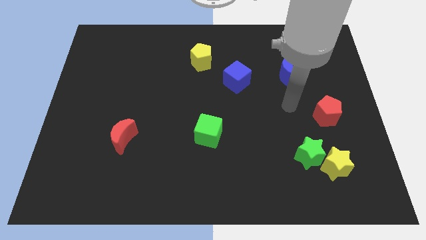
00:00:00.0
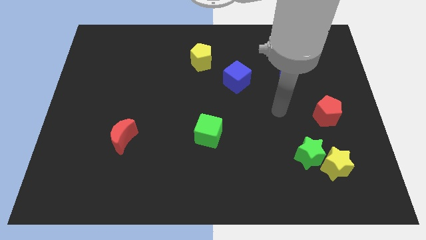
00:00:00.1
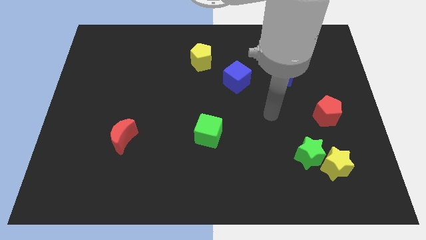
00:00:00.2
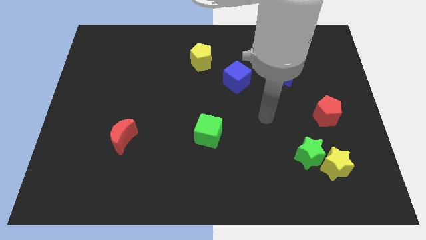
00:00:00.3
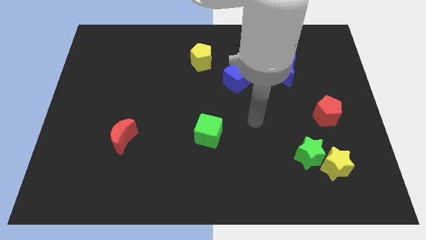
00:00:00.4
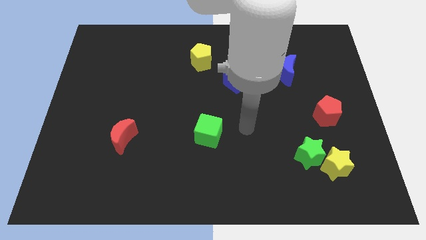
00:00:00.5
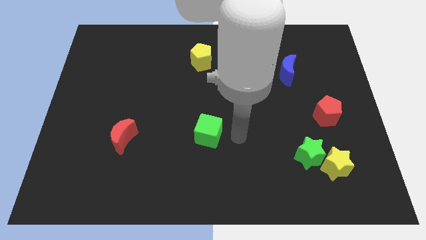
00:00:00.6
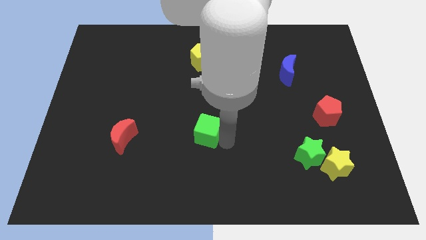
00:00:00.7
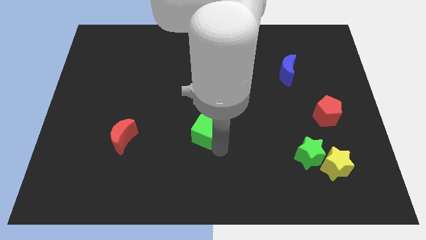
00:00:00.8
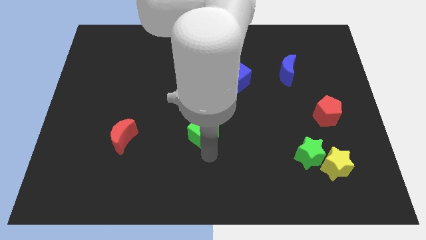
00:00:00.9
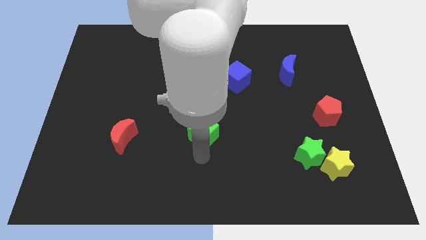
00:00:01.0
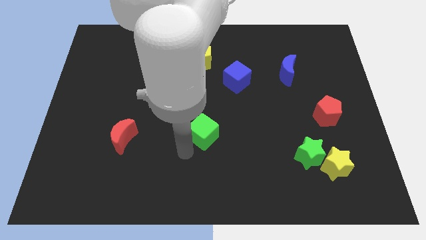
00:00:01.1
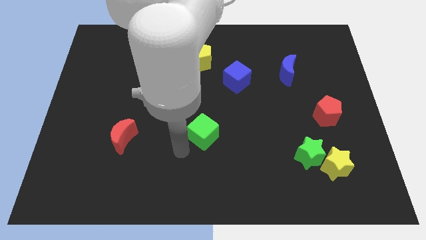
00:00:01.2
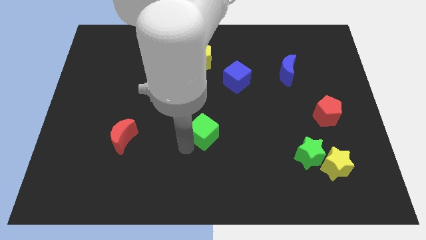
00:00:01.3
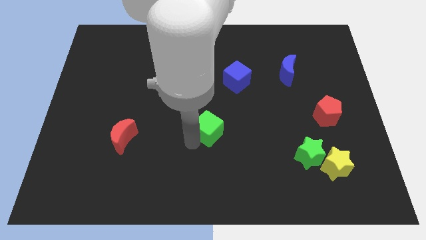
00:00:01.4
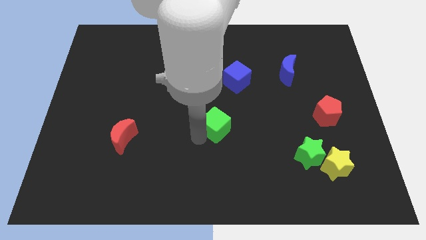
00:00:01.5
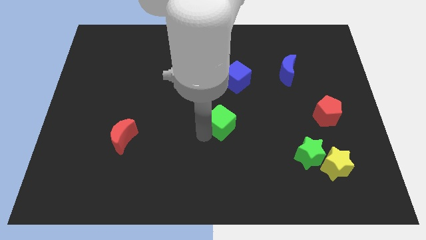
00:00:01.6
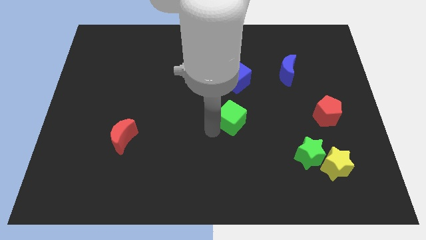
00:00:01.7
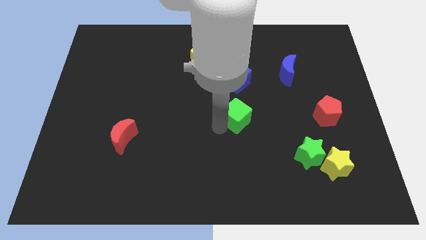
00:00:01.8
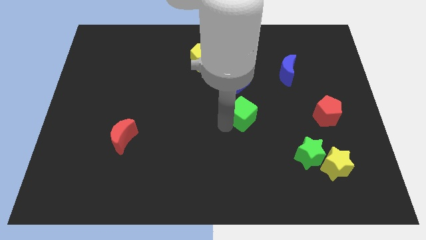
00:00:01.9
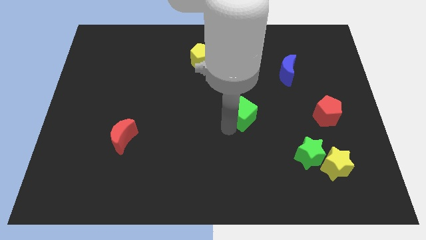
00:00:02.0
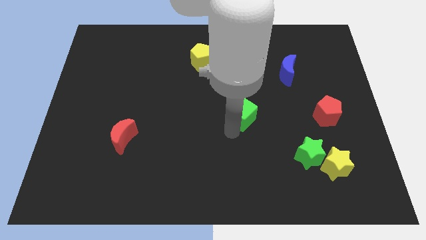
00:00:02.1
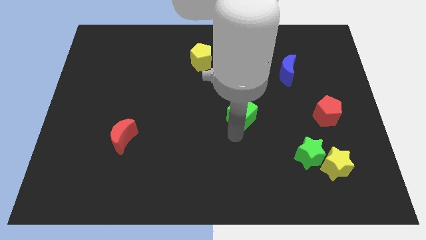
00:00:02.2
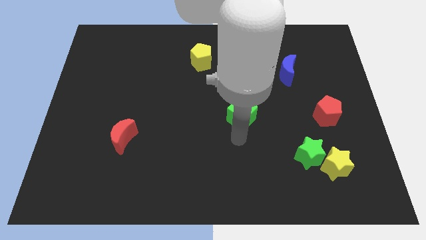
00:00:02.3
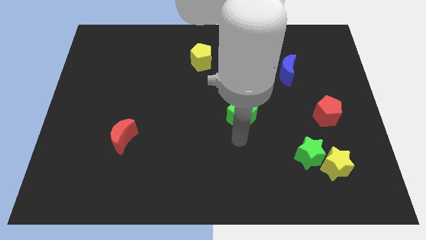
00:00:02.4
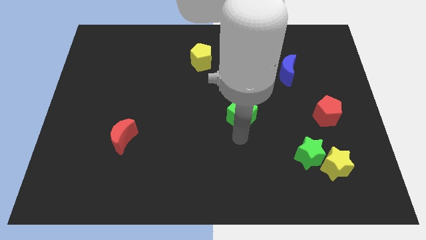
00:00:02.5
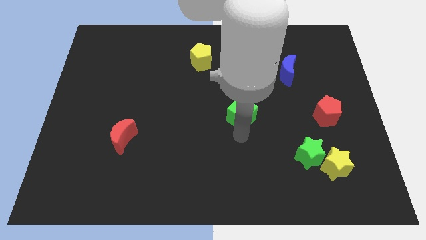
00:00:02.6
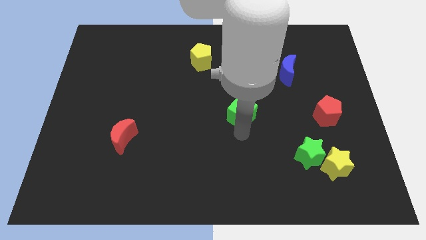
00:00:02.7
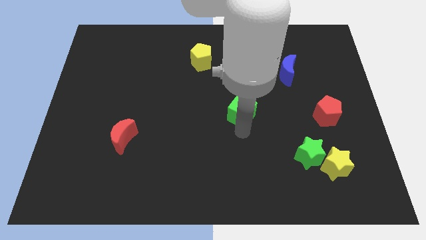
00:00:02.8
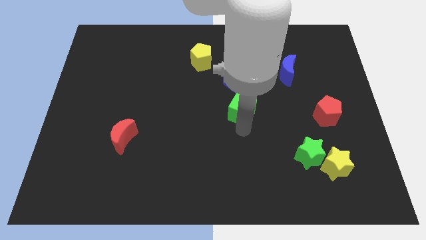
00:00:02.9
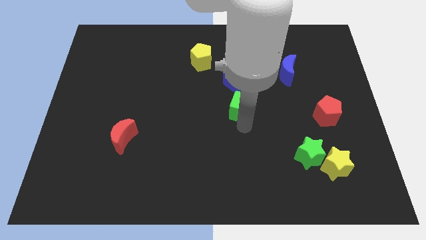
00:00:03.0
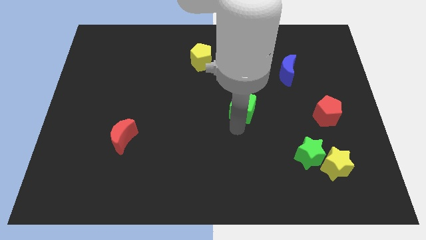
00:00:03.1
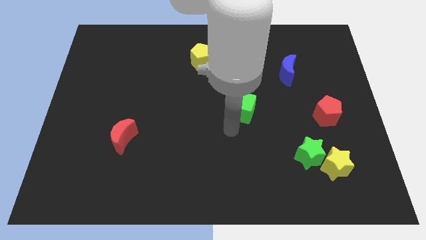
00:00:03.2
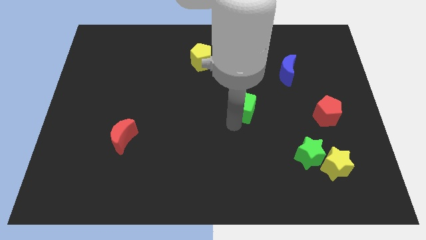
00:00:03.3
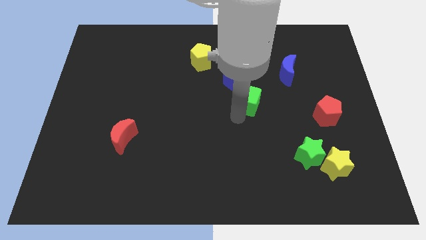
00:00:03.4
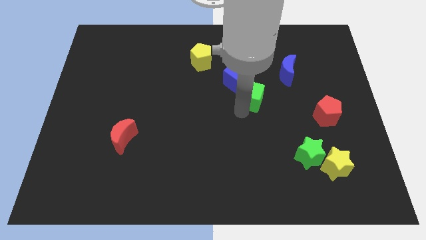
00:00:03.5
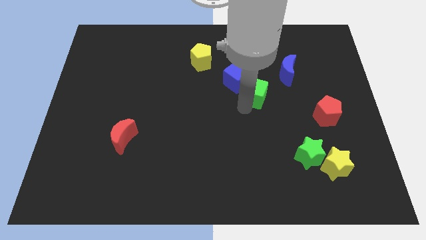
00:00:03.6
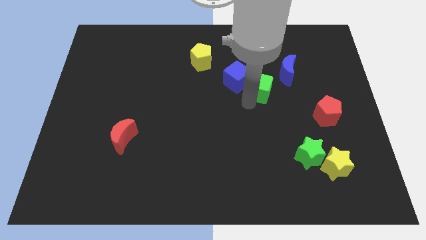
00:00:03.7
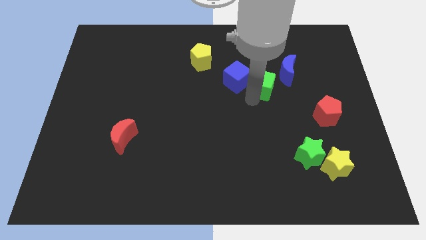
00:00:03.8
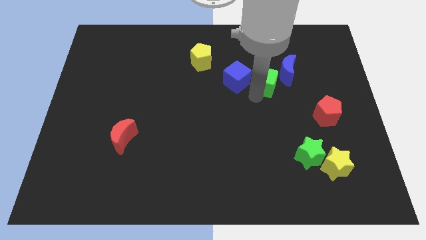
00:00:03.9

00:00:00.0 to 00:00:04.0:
slide the green cube up and to the right diagonally

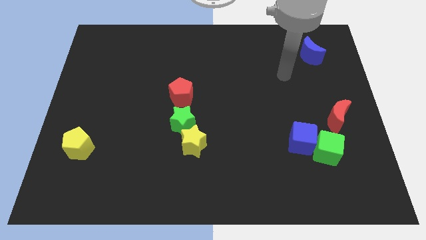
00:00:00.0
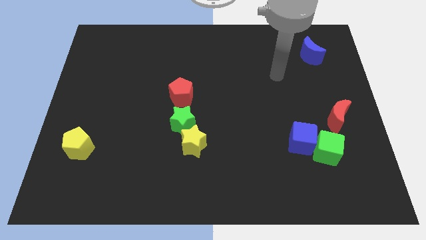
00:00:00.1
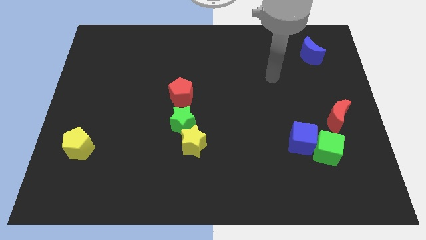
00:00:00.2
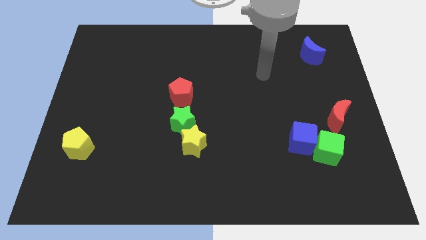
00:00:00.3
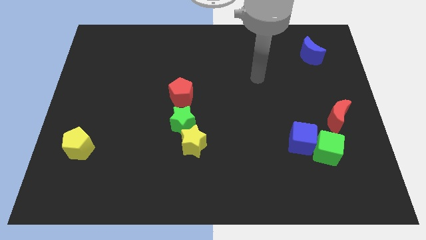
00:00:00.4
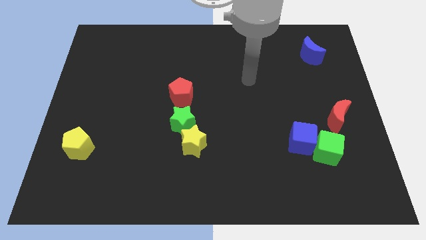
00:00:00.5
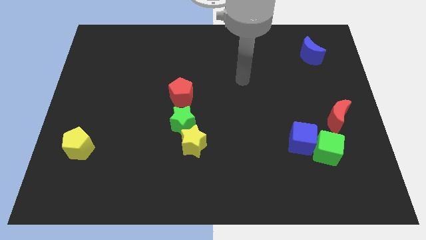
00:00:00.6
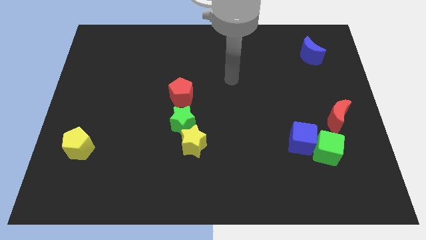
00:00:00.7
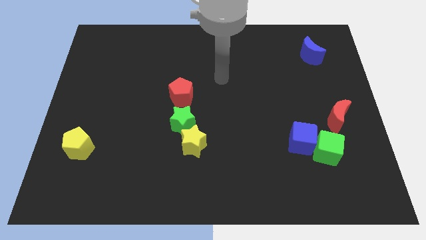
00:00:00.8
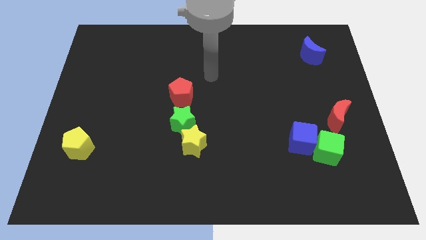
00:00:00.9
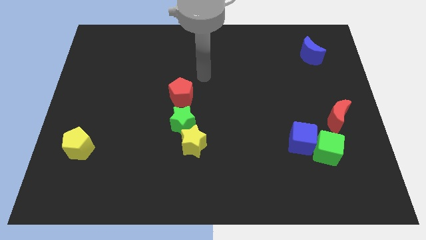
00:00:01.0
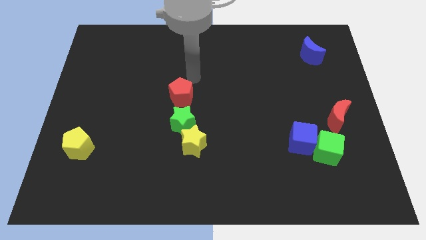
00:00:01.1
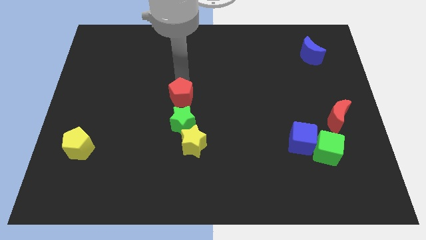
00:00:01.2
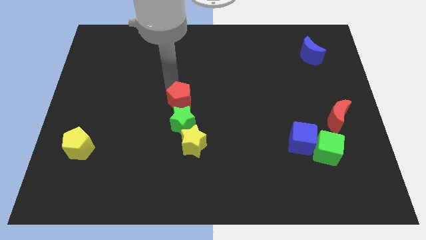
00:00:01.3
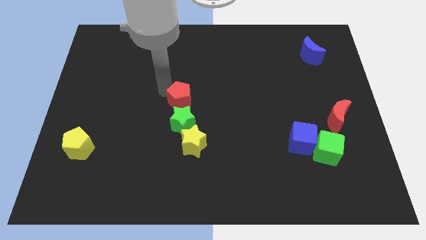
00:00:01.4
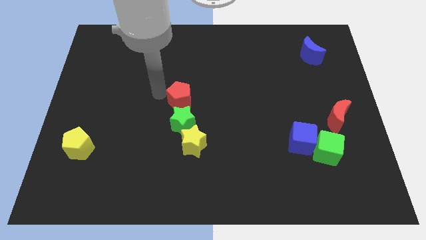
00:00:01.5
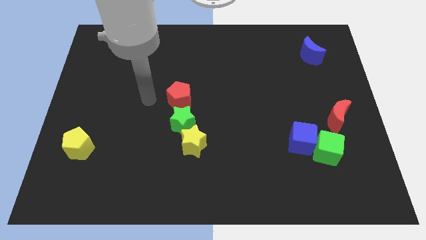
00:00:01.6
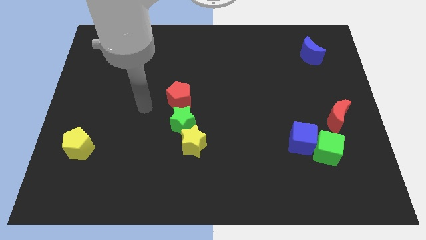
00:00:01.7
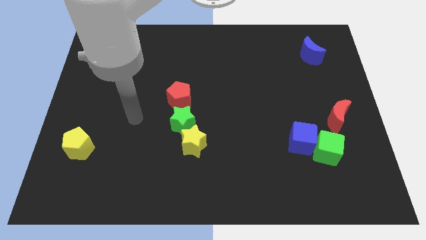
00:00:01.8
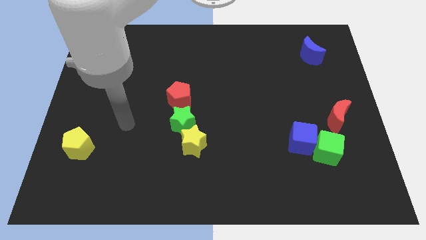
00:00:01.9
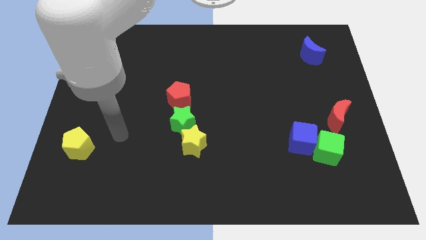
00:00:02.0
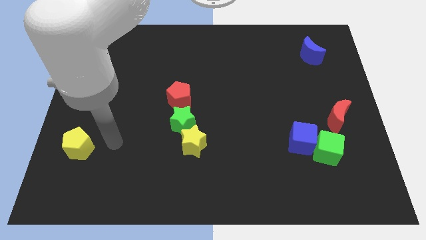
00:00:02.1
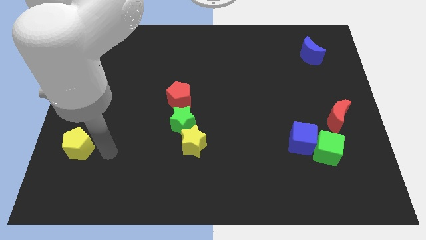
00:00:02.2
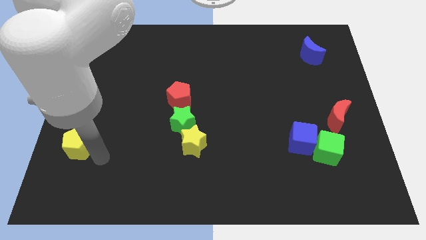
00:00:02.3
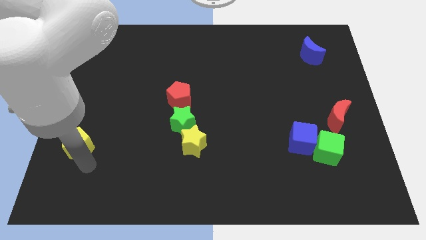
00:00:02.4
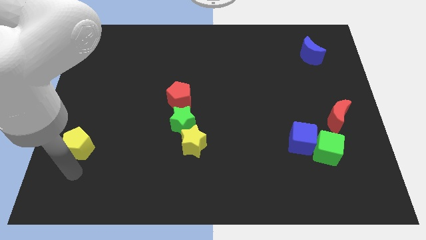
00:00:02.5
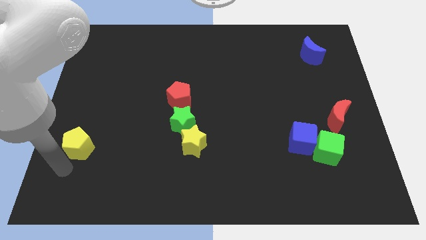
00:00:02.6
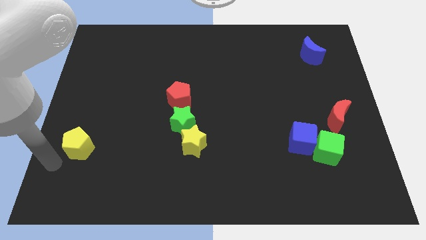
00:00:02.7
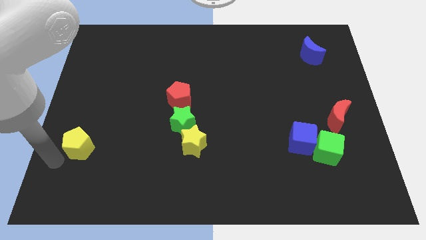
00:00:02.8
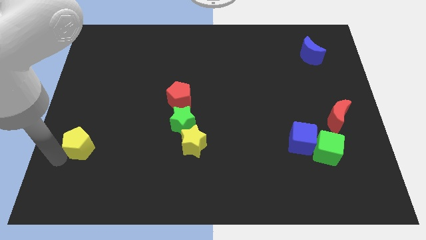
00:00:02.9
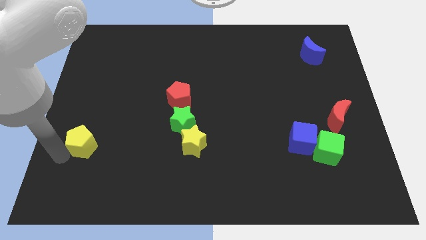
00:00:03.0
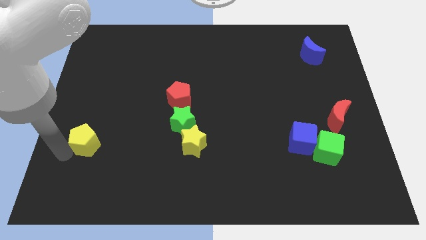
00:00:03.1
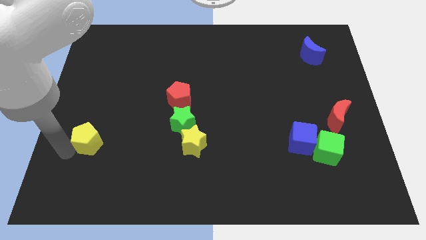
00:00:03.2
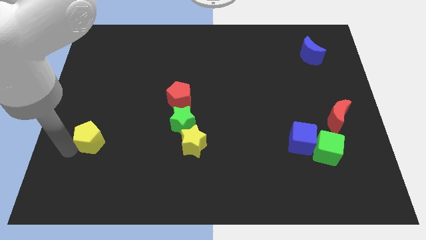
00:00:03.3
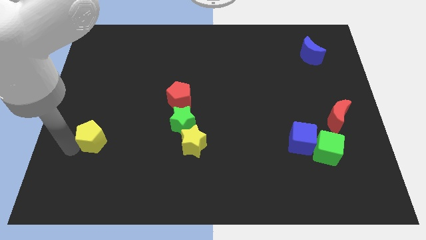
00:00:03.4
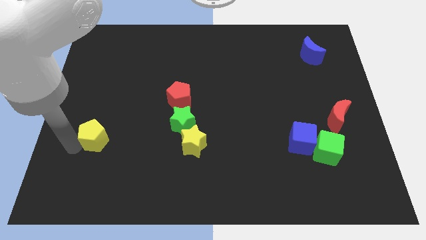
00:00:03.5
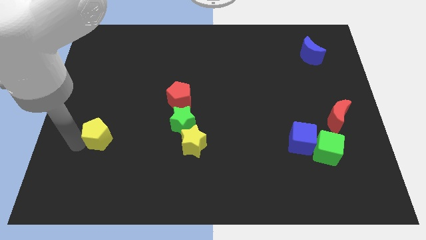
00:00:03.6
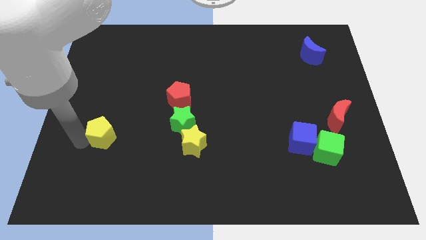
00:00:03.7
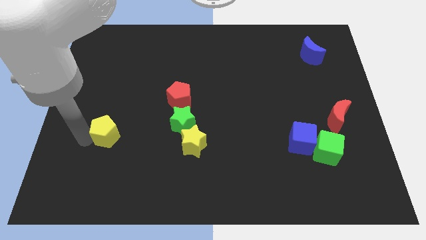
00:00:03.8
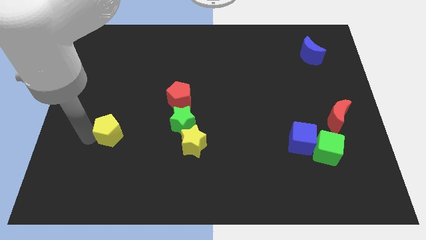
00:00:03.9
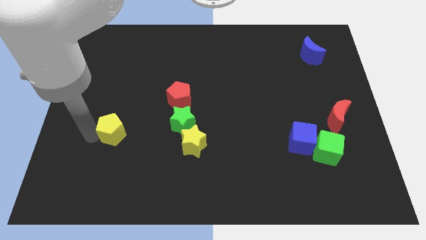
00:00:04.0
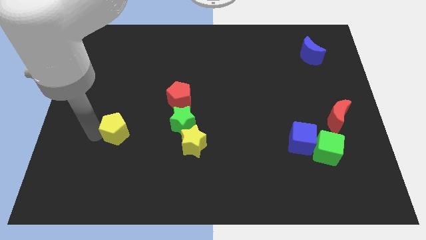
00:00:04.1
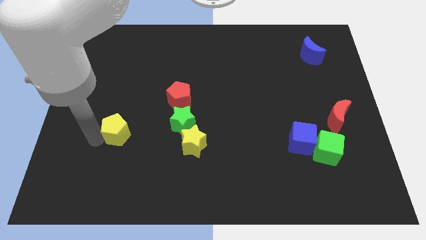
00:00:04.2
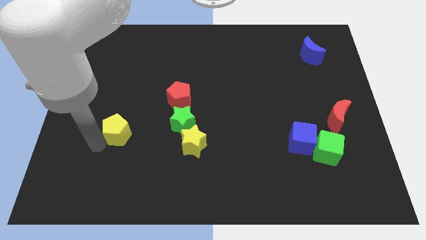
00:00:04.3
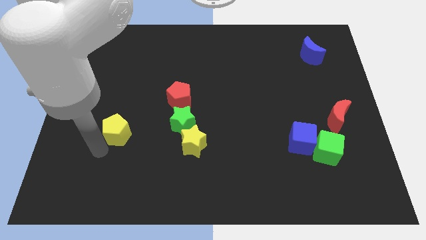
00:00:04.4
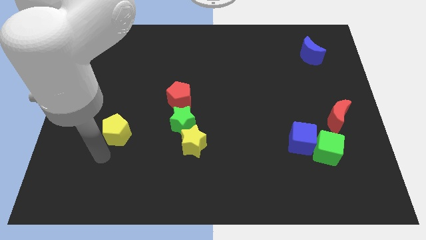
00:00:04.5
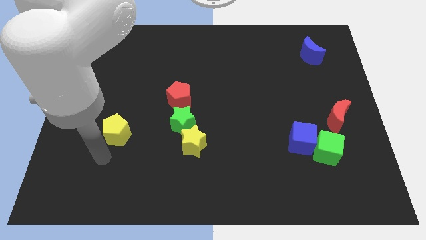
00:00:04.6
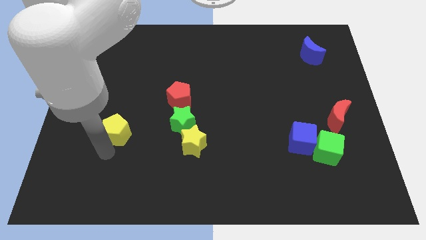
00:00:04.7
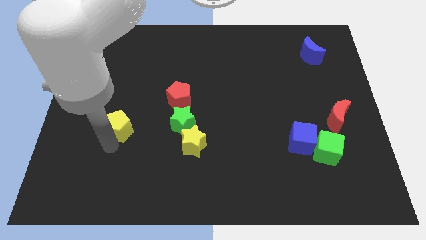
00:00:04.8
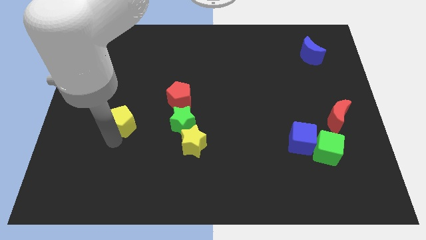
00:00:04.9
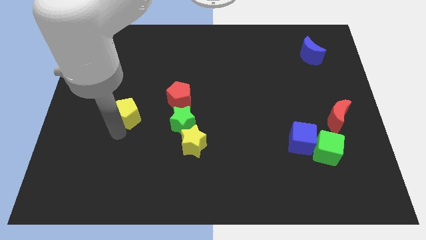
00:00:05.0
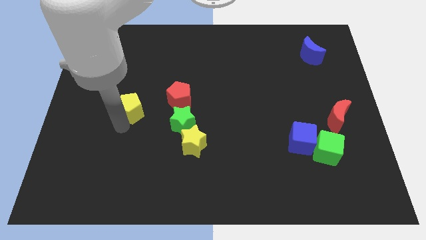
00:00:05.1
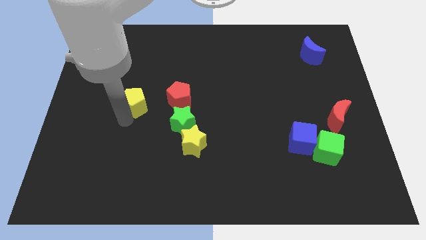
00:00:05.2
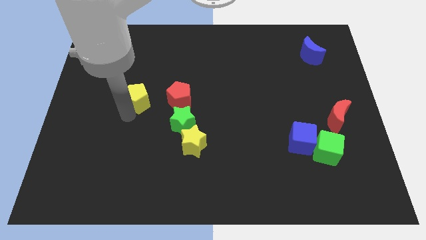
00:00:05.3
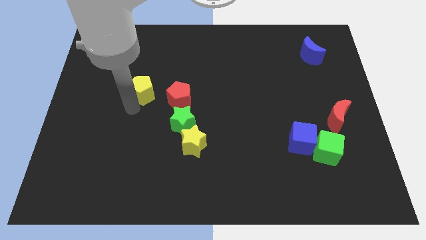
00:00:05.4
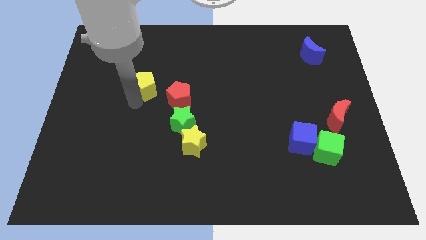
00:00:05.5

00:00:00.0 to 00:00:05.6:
move the yellow pentagon upwards and then right
